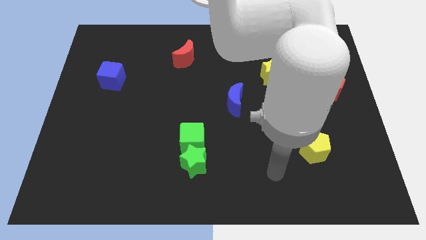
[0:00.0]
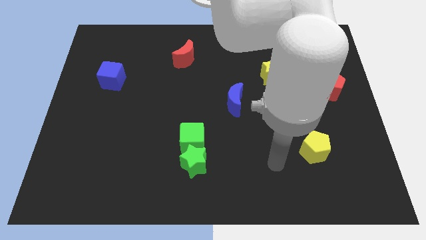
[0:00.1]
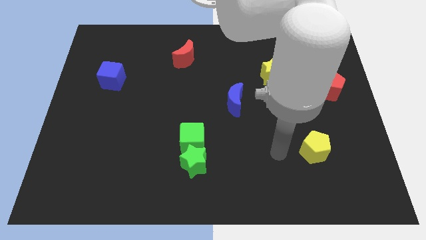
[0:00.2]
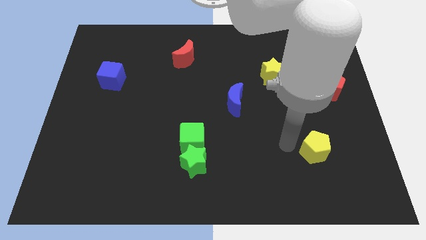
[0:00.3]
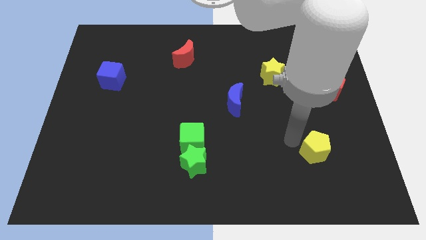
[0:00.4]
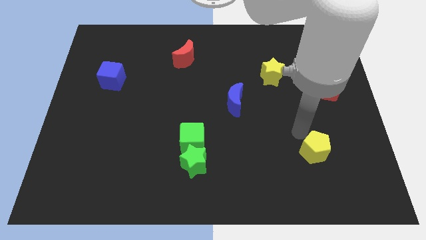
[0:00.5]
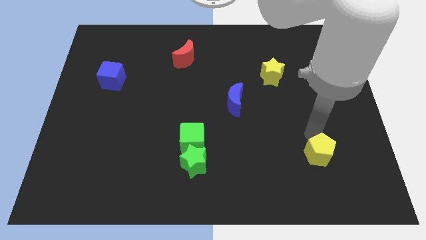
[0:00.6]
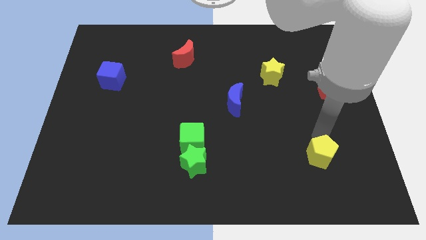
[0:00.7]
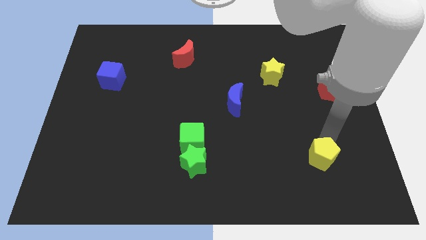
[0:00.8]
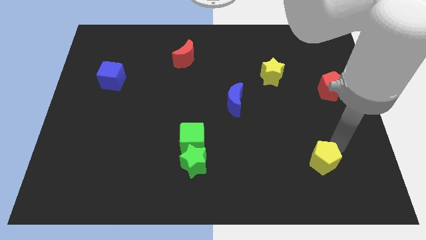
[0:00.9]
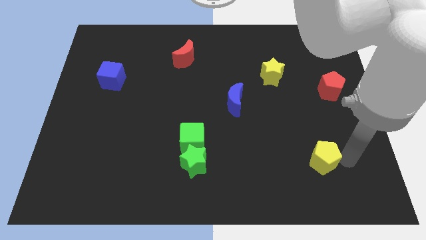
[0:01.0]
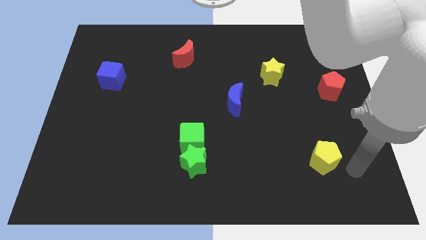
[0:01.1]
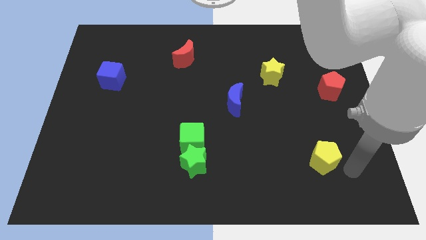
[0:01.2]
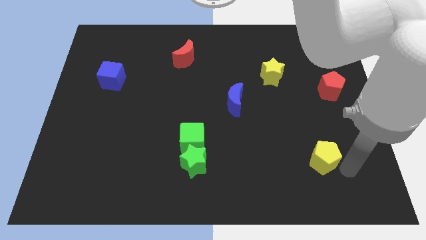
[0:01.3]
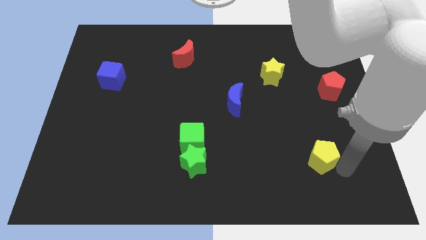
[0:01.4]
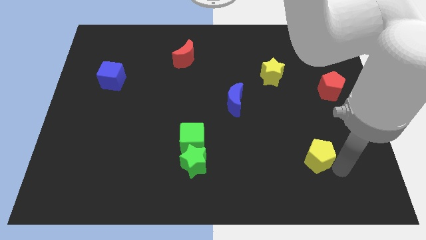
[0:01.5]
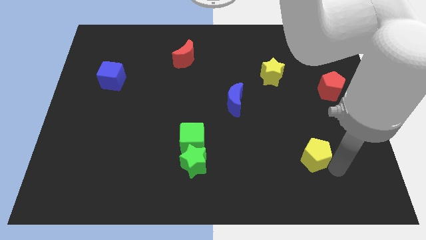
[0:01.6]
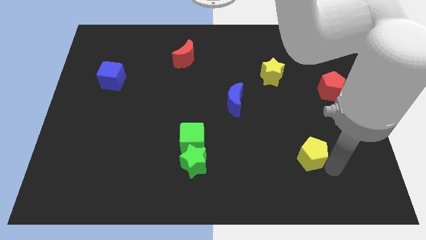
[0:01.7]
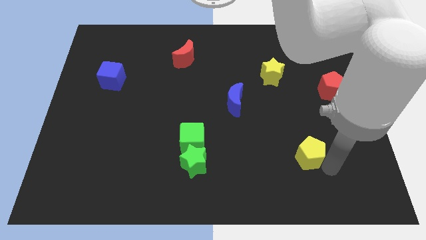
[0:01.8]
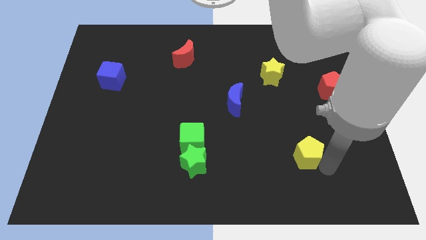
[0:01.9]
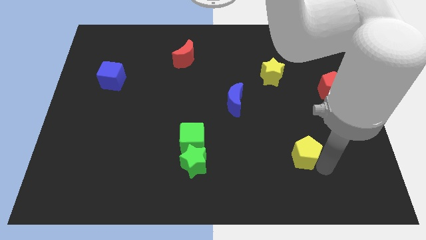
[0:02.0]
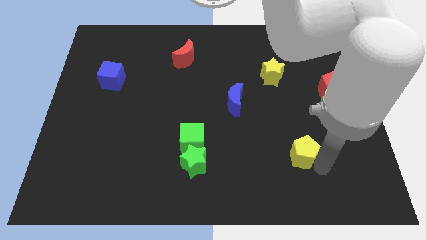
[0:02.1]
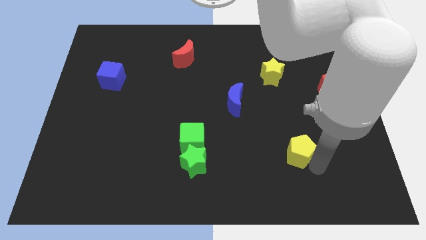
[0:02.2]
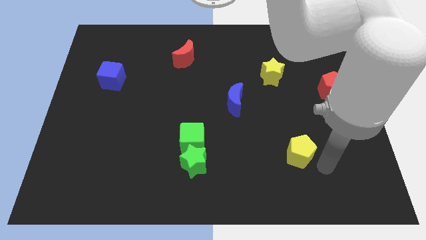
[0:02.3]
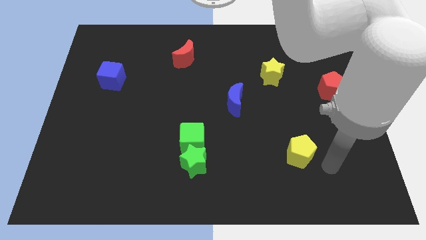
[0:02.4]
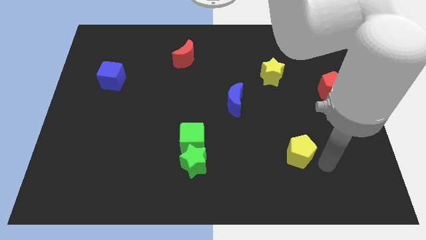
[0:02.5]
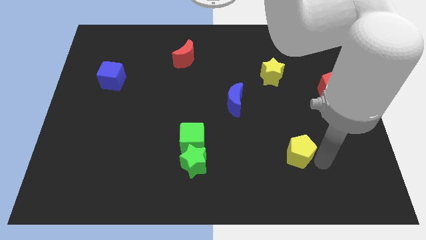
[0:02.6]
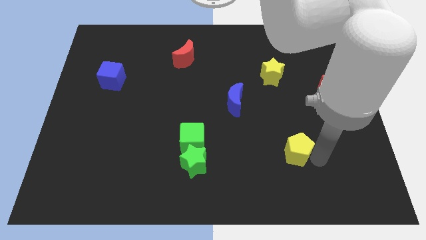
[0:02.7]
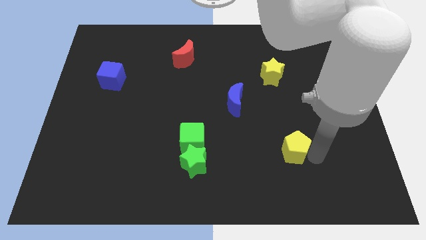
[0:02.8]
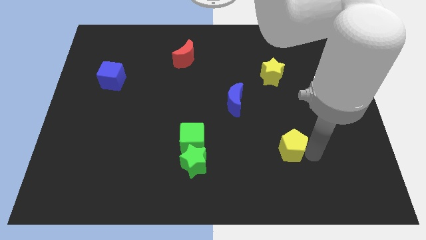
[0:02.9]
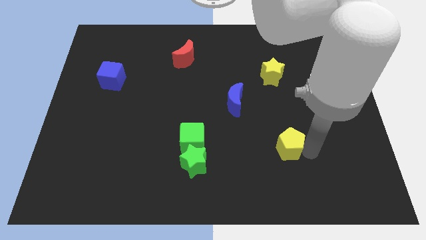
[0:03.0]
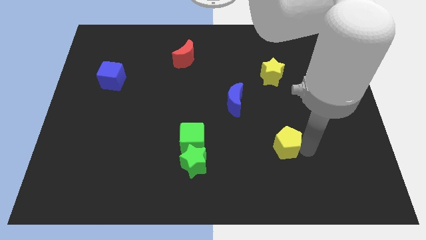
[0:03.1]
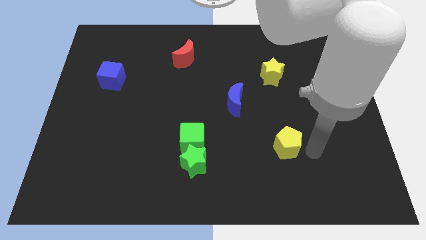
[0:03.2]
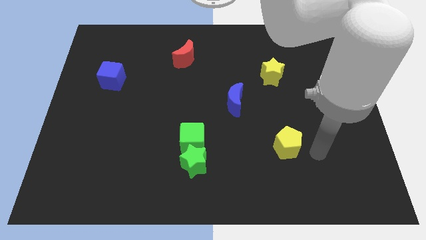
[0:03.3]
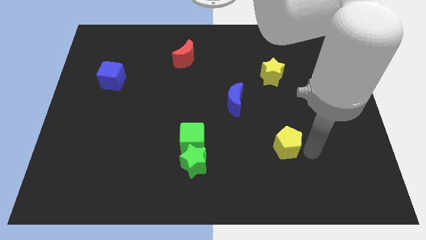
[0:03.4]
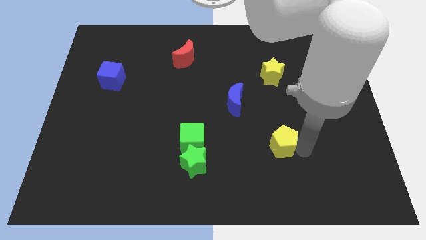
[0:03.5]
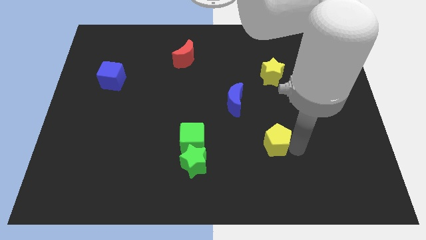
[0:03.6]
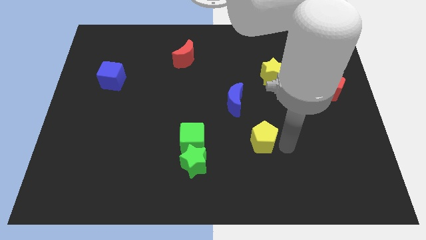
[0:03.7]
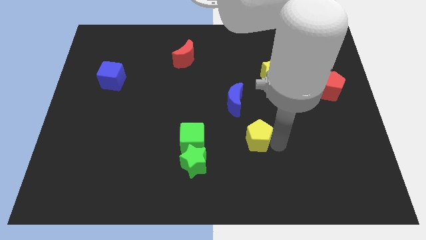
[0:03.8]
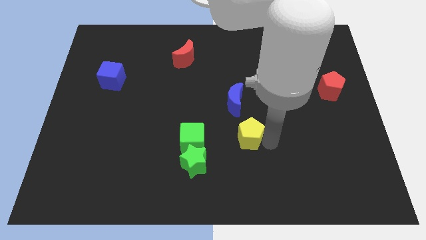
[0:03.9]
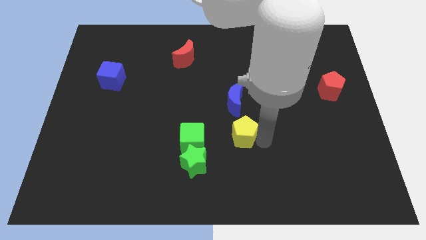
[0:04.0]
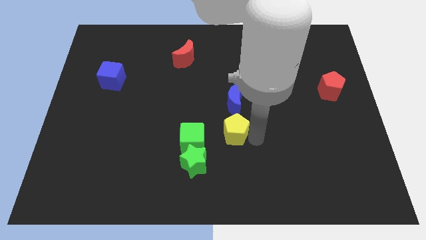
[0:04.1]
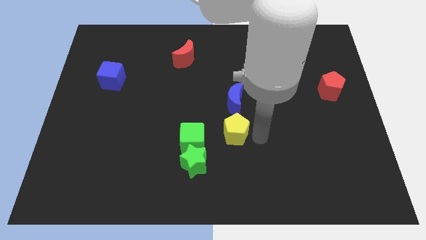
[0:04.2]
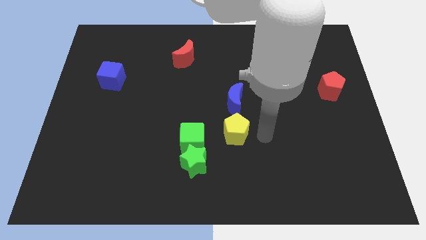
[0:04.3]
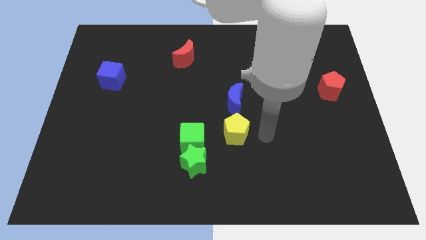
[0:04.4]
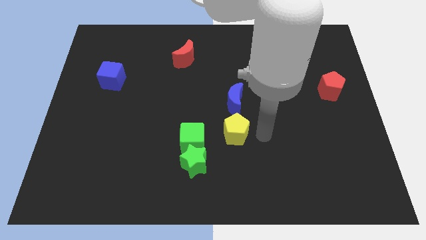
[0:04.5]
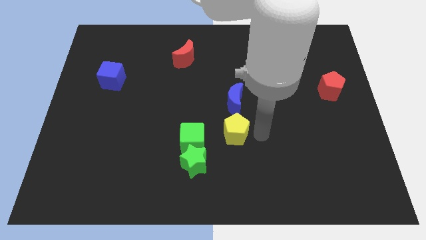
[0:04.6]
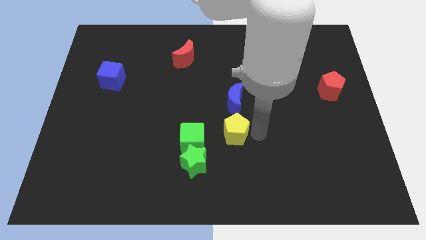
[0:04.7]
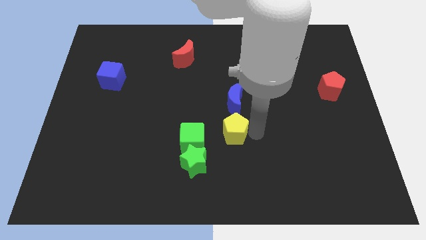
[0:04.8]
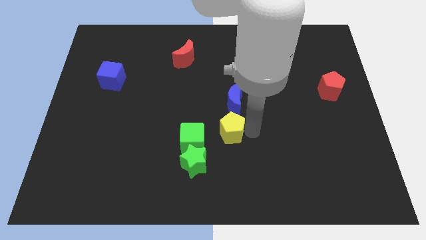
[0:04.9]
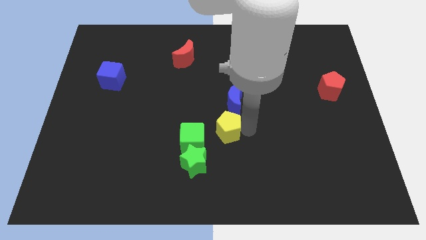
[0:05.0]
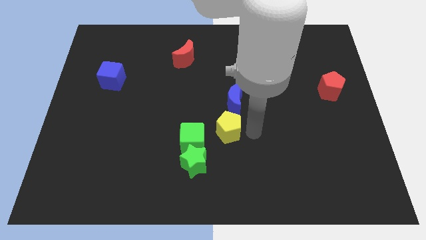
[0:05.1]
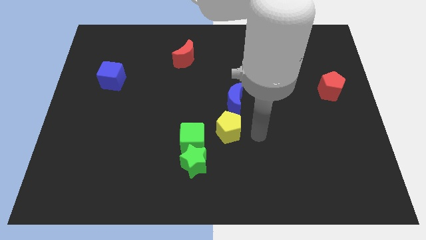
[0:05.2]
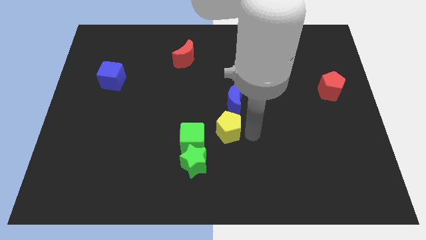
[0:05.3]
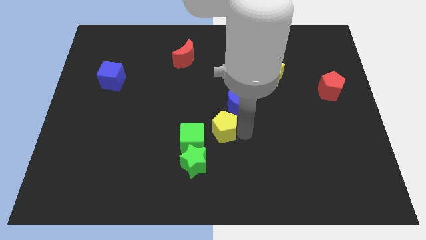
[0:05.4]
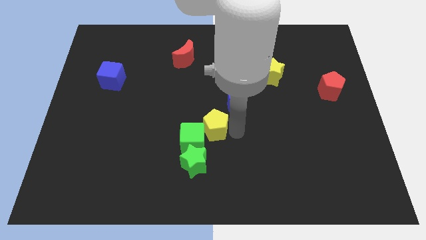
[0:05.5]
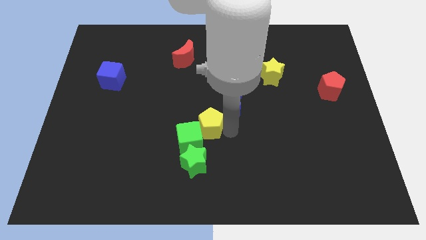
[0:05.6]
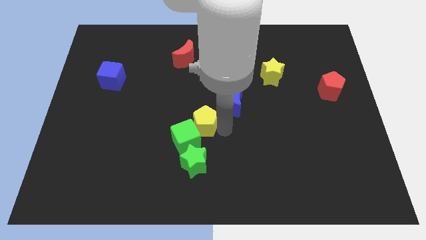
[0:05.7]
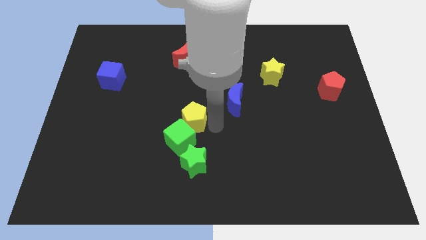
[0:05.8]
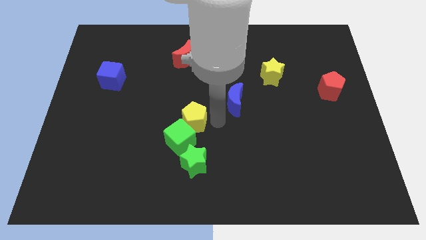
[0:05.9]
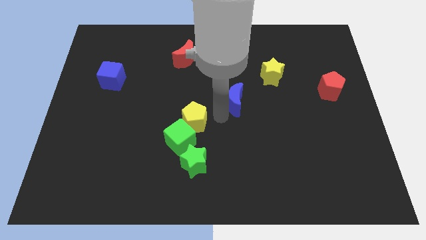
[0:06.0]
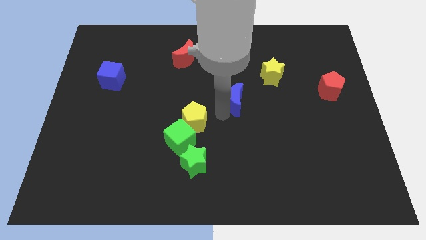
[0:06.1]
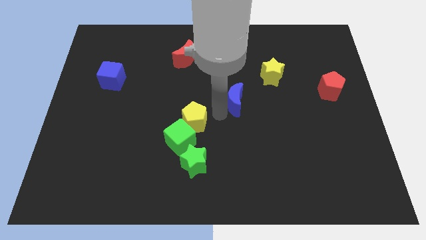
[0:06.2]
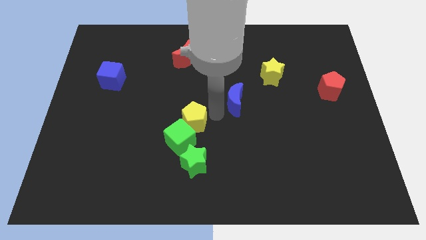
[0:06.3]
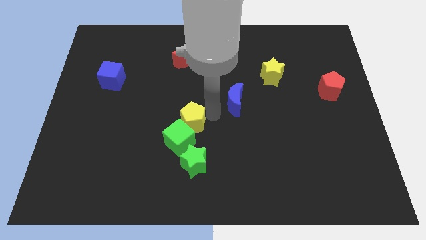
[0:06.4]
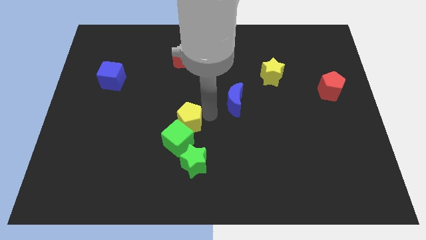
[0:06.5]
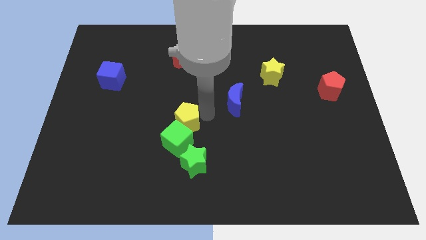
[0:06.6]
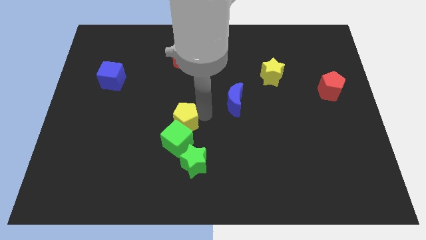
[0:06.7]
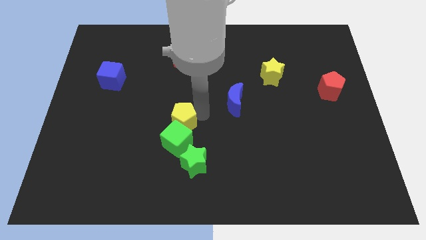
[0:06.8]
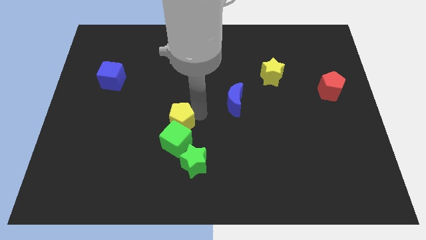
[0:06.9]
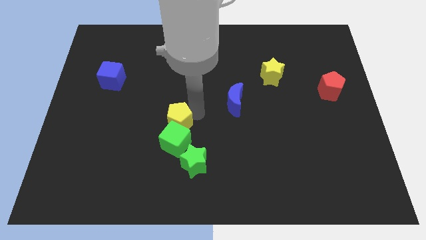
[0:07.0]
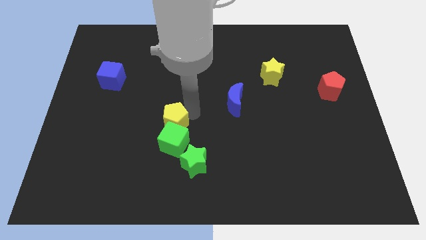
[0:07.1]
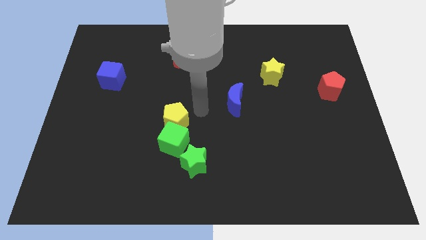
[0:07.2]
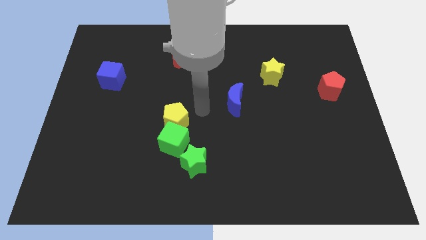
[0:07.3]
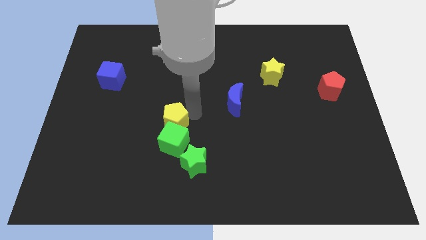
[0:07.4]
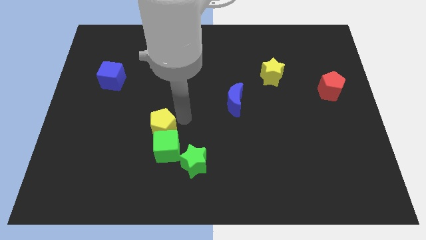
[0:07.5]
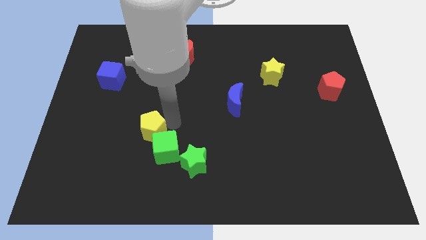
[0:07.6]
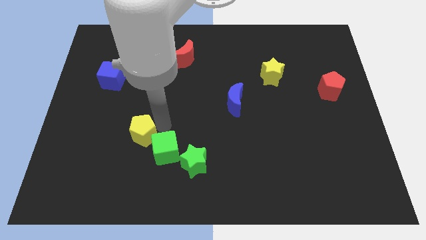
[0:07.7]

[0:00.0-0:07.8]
move the yellow pentagon just left of the green cube
